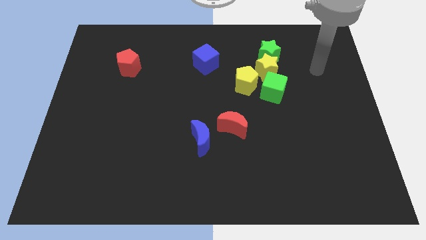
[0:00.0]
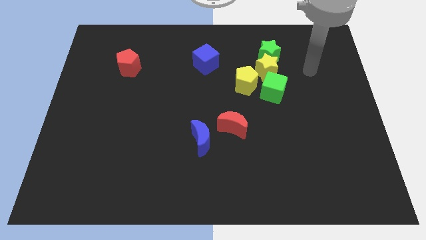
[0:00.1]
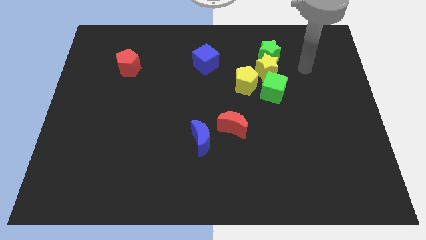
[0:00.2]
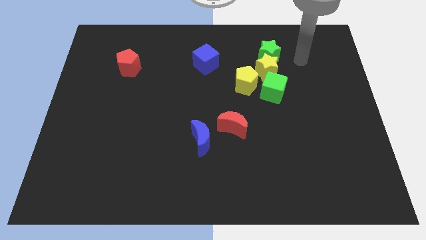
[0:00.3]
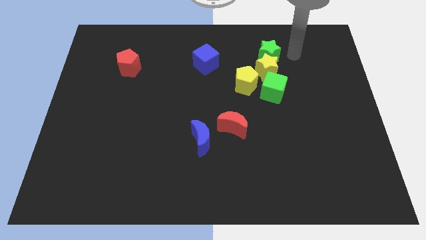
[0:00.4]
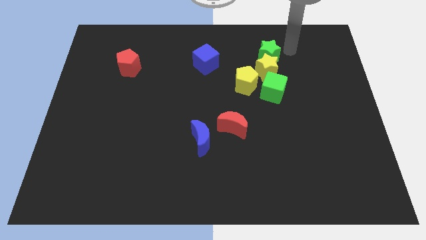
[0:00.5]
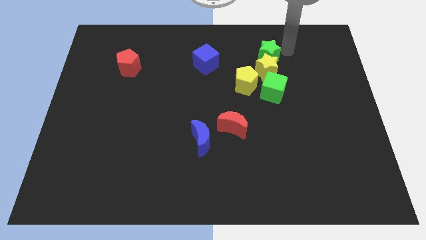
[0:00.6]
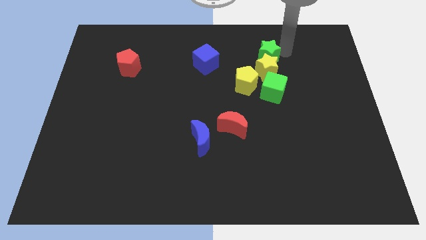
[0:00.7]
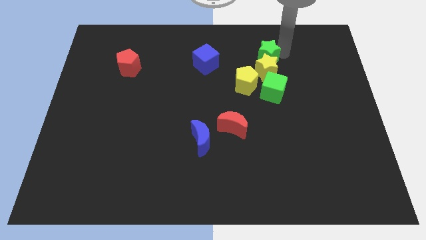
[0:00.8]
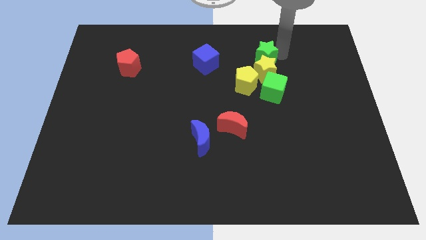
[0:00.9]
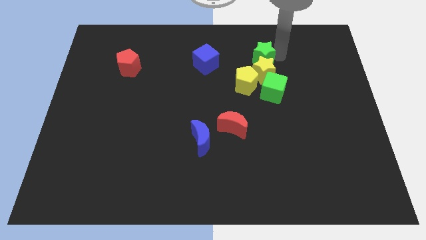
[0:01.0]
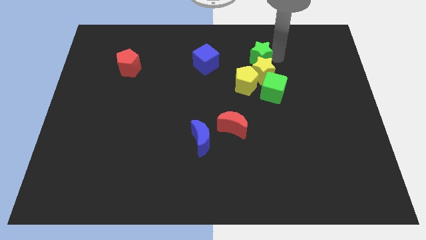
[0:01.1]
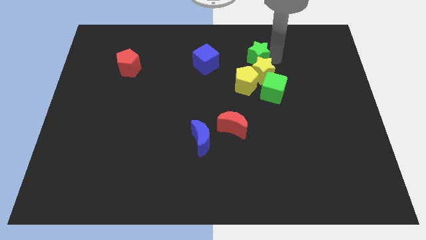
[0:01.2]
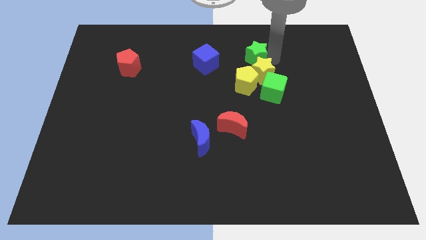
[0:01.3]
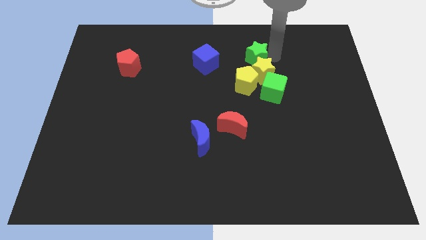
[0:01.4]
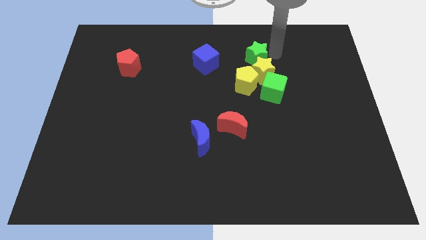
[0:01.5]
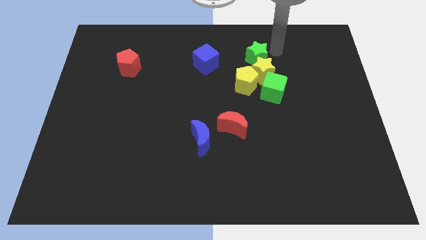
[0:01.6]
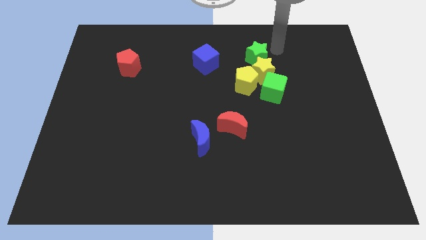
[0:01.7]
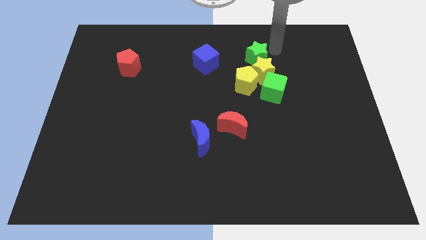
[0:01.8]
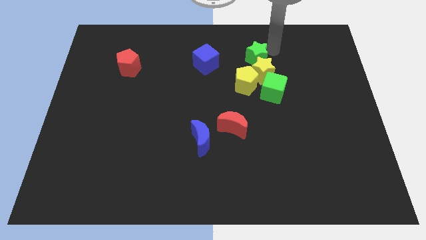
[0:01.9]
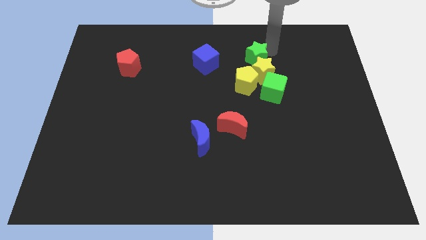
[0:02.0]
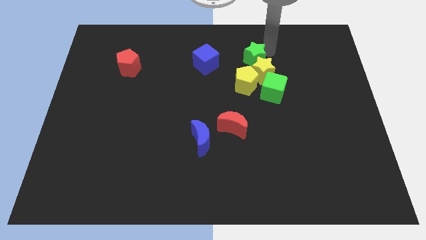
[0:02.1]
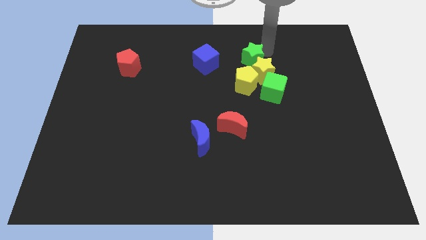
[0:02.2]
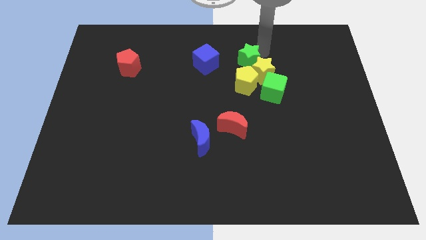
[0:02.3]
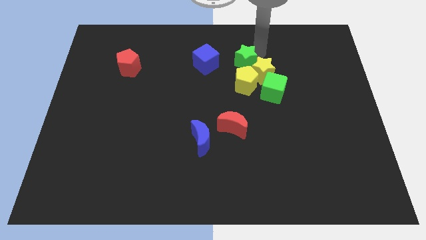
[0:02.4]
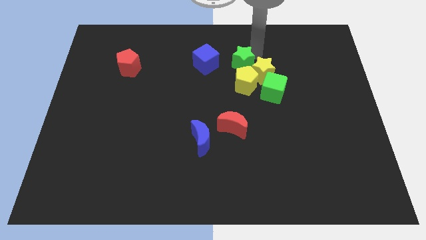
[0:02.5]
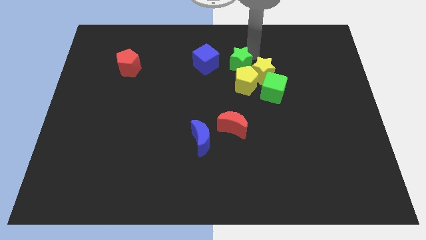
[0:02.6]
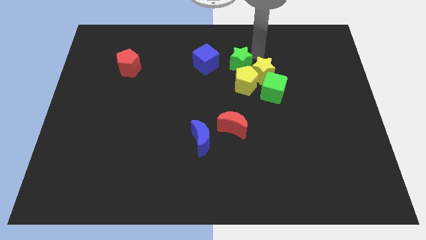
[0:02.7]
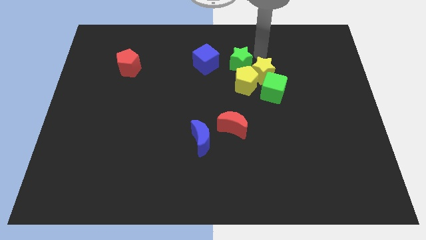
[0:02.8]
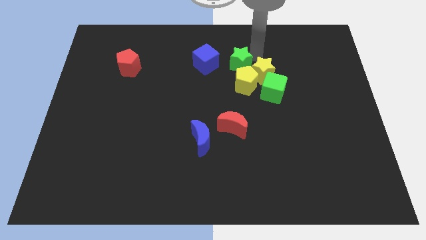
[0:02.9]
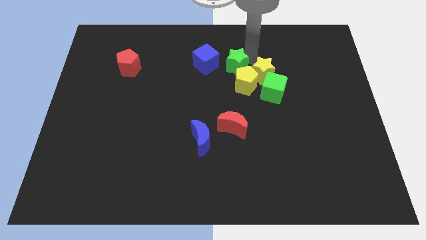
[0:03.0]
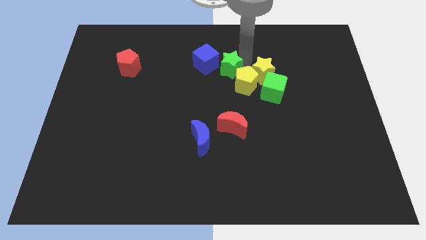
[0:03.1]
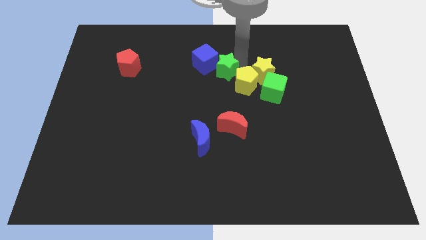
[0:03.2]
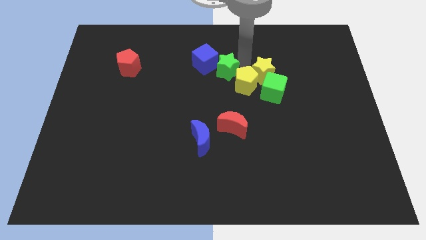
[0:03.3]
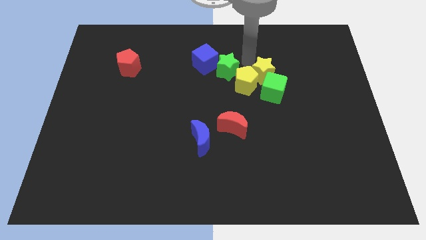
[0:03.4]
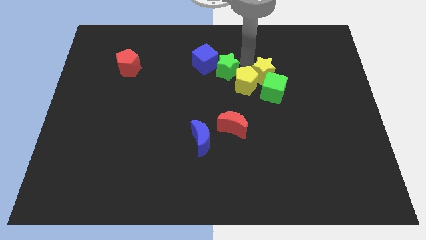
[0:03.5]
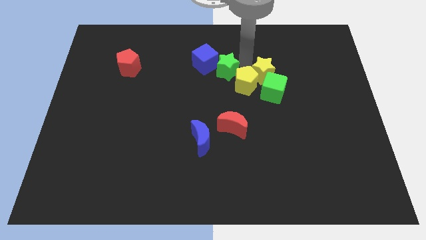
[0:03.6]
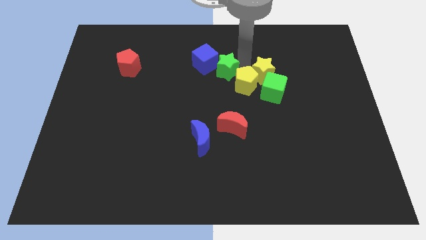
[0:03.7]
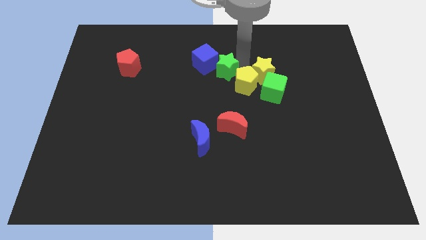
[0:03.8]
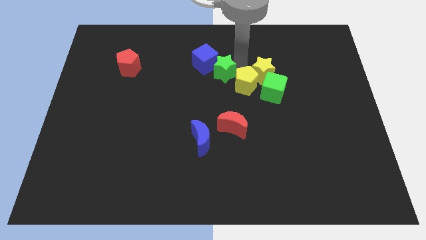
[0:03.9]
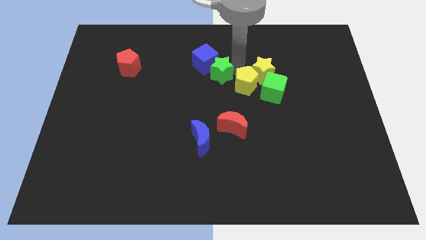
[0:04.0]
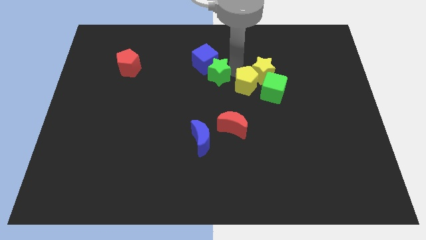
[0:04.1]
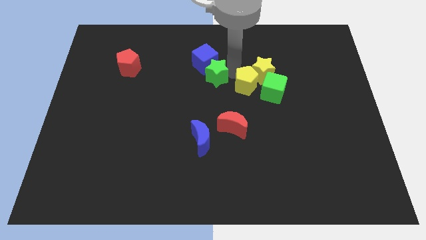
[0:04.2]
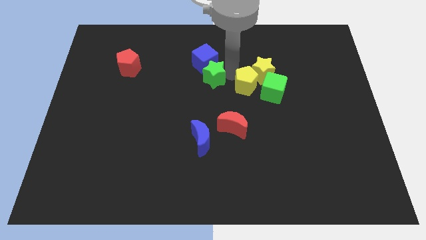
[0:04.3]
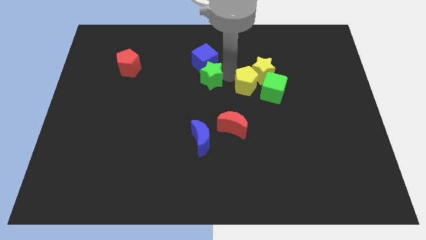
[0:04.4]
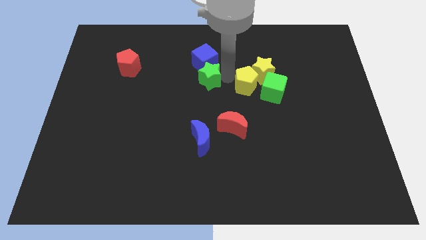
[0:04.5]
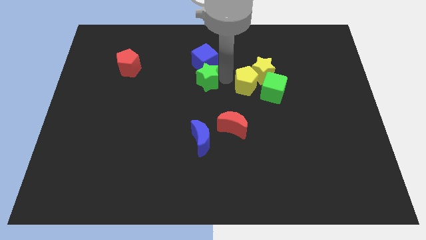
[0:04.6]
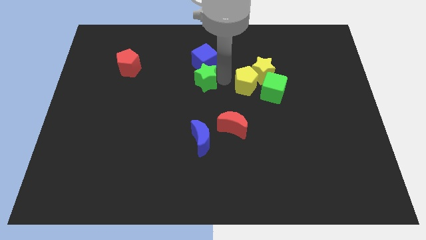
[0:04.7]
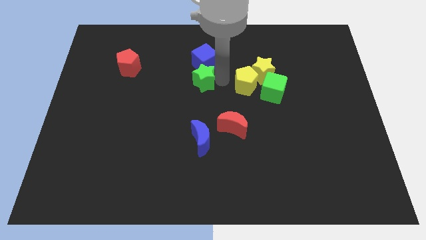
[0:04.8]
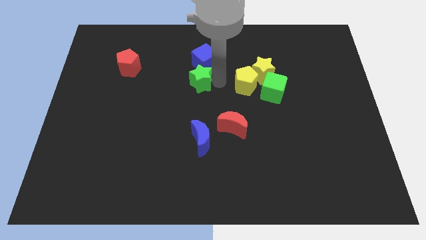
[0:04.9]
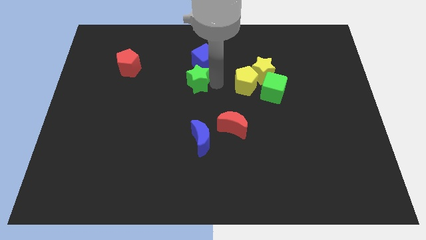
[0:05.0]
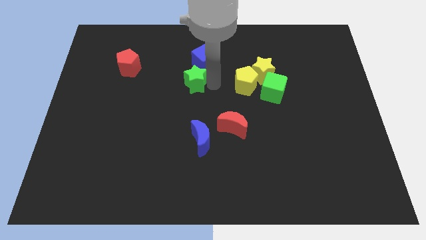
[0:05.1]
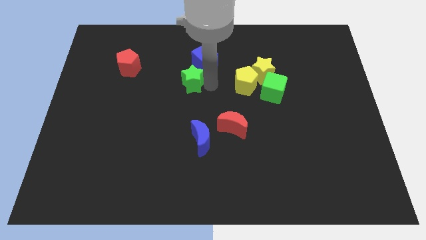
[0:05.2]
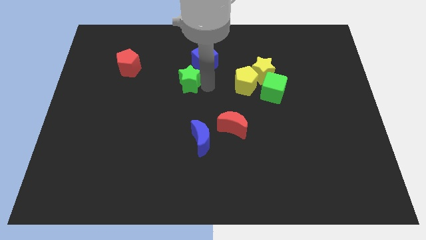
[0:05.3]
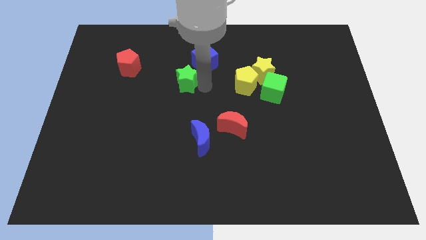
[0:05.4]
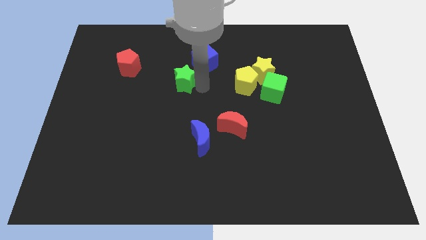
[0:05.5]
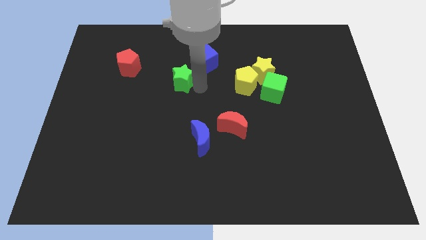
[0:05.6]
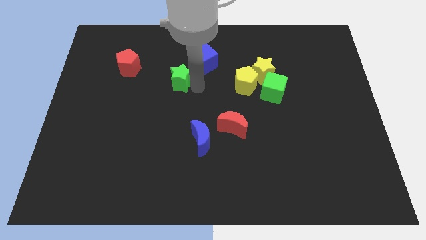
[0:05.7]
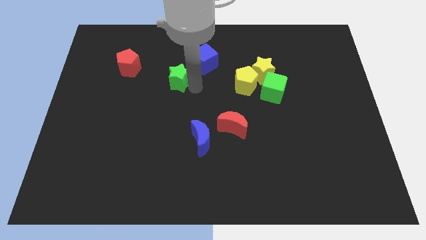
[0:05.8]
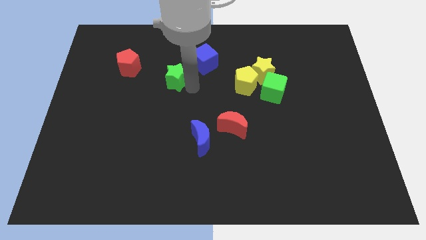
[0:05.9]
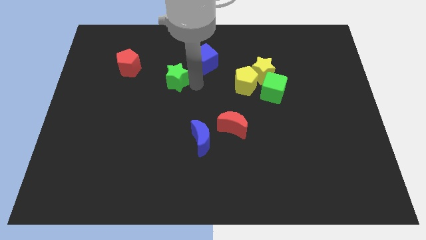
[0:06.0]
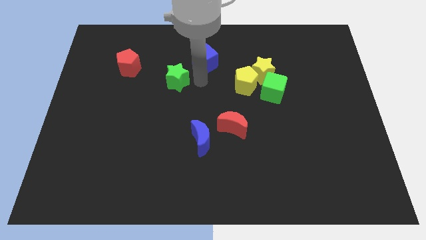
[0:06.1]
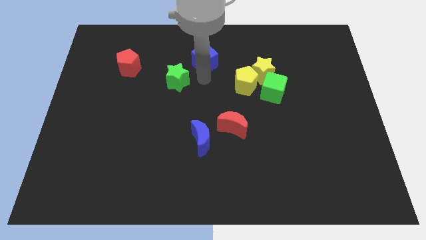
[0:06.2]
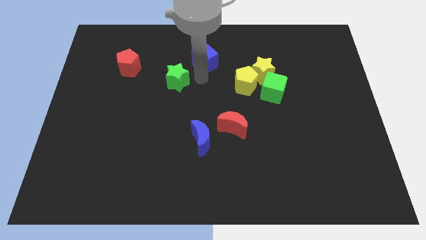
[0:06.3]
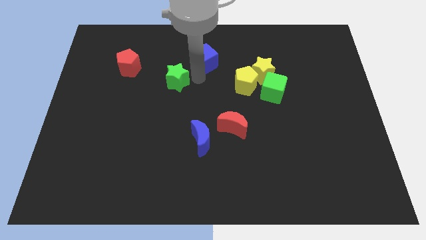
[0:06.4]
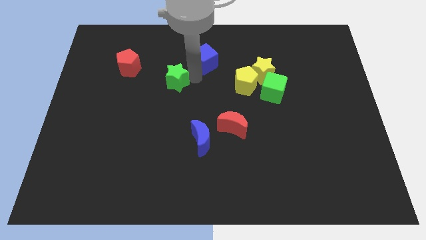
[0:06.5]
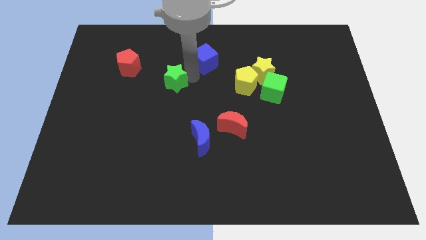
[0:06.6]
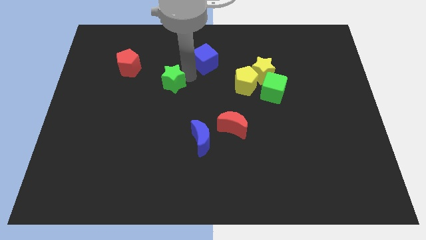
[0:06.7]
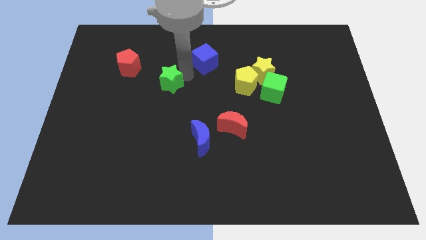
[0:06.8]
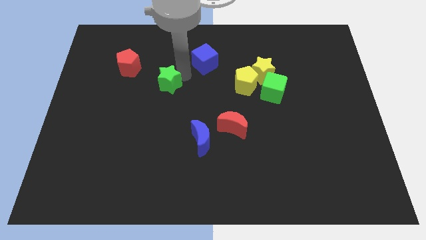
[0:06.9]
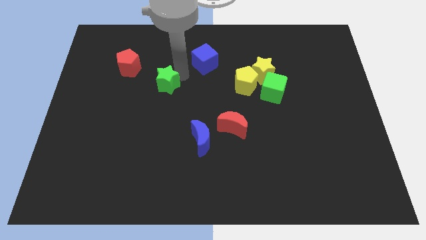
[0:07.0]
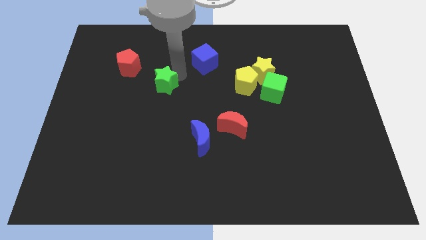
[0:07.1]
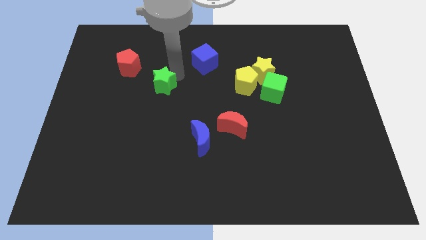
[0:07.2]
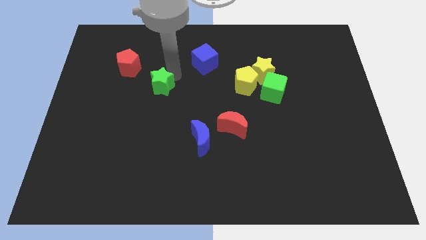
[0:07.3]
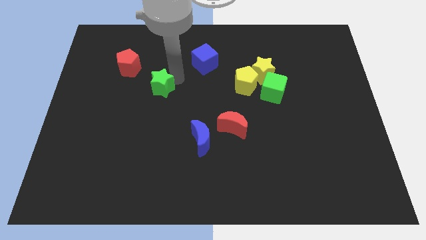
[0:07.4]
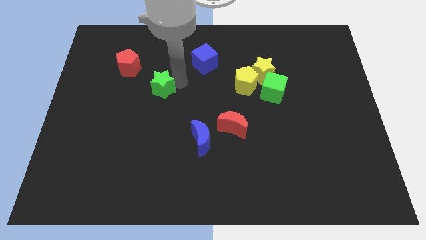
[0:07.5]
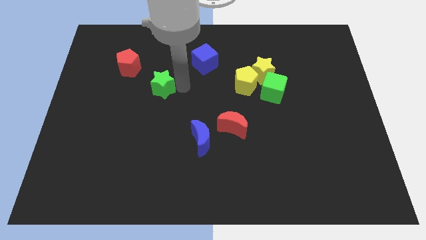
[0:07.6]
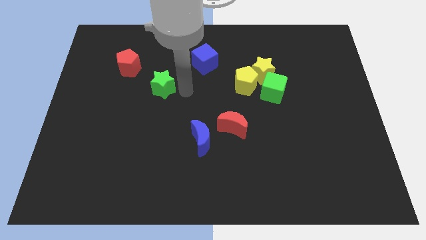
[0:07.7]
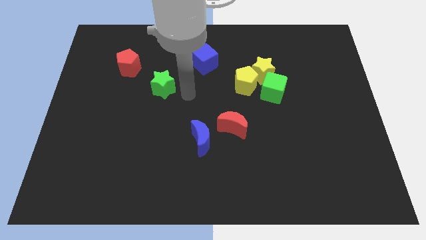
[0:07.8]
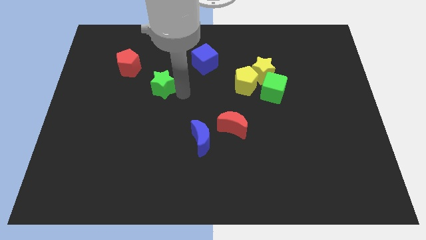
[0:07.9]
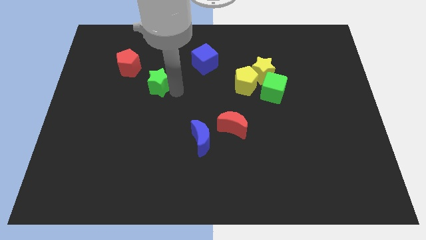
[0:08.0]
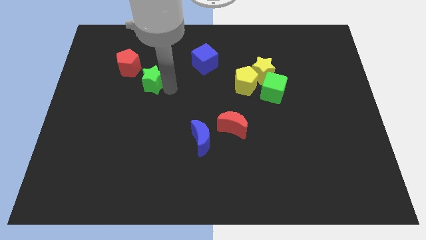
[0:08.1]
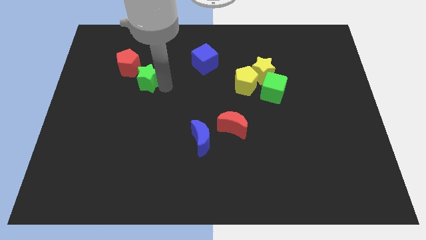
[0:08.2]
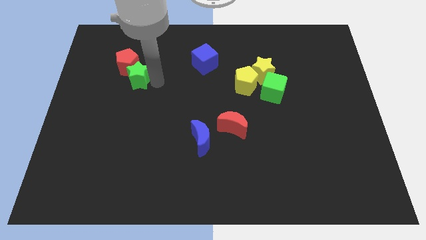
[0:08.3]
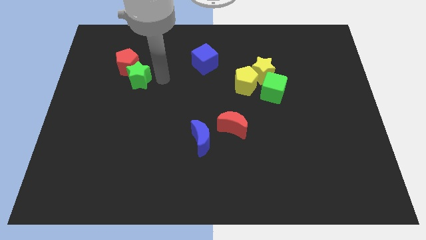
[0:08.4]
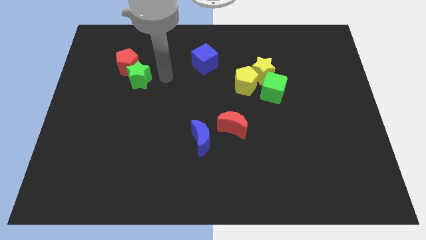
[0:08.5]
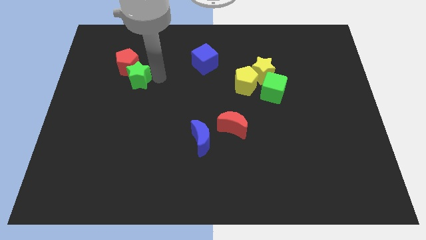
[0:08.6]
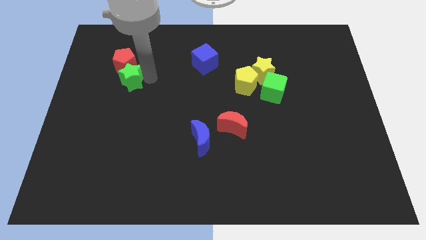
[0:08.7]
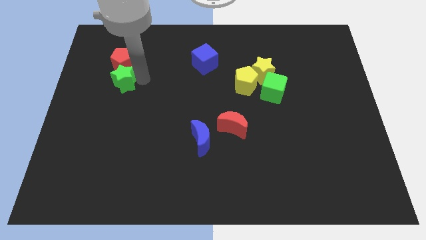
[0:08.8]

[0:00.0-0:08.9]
slide the green star to the bottom left side of the red pentagon
